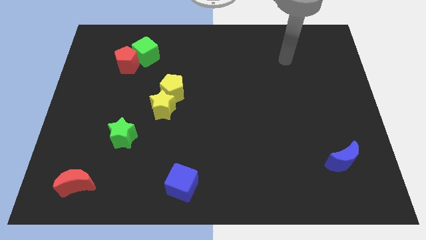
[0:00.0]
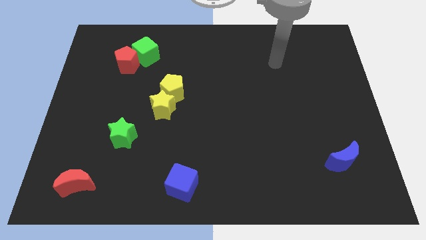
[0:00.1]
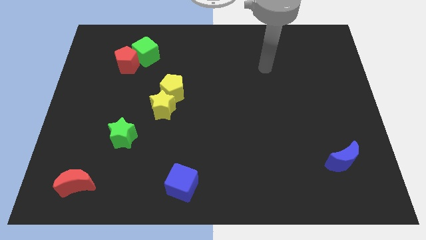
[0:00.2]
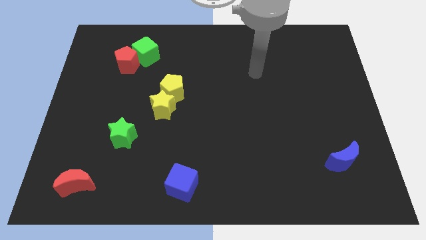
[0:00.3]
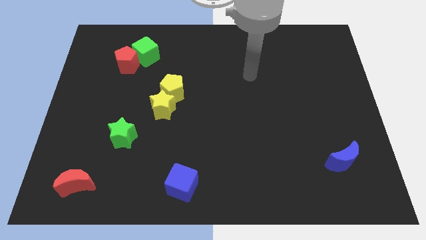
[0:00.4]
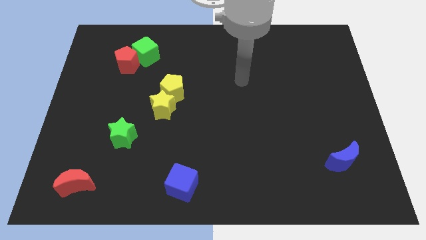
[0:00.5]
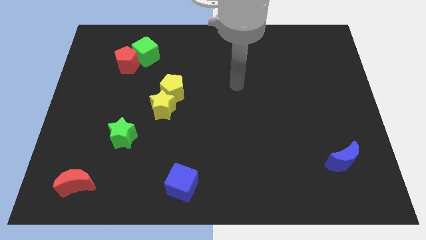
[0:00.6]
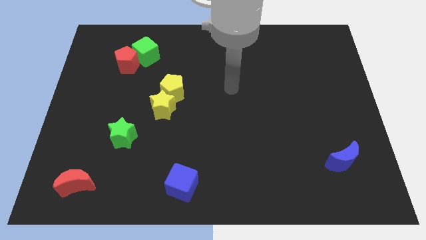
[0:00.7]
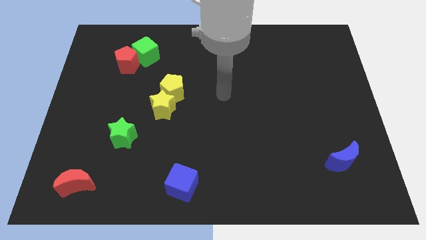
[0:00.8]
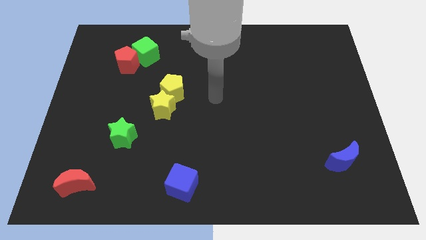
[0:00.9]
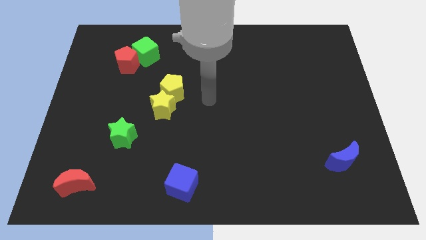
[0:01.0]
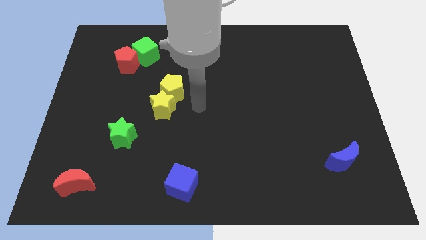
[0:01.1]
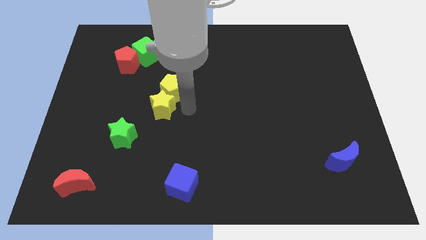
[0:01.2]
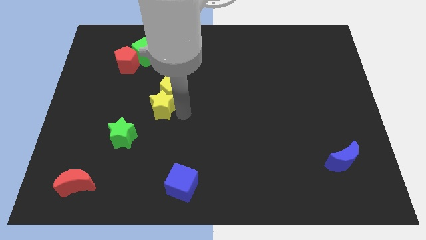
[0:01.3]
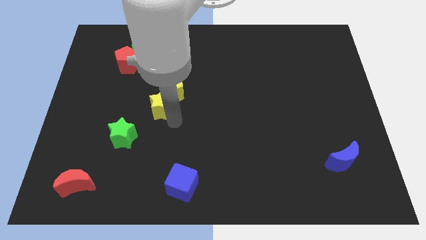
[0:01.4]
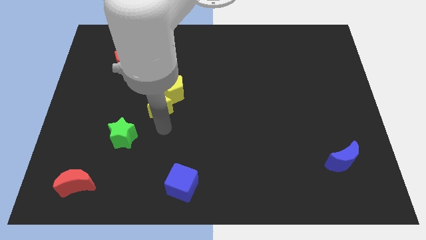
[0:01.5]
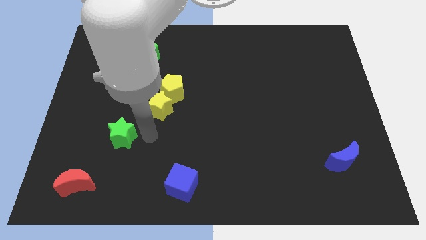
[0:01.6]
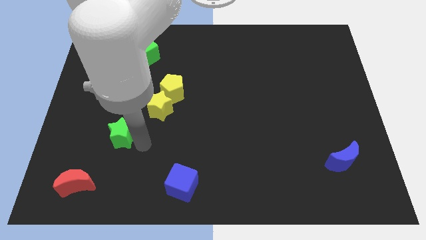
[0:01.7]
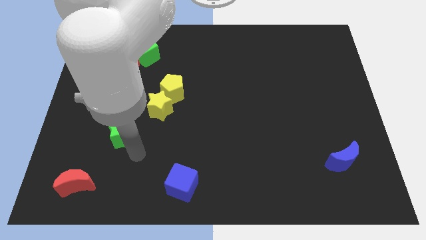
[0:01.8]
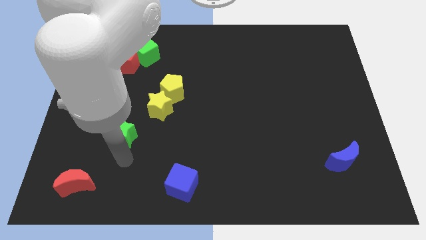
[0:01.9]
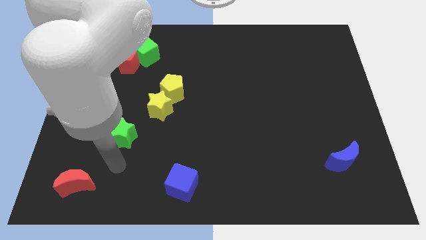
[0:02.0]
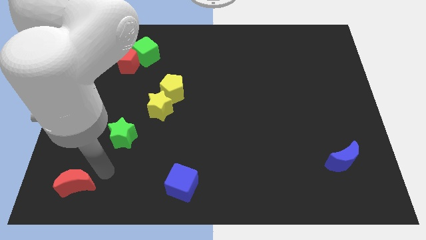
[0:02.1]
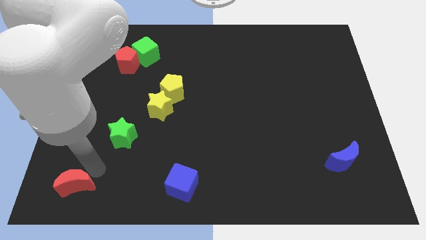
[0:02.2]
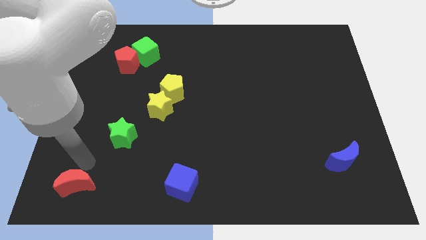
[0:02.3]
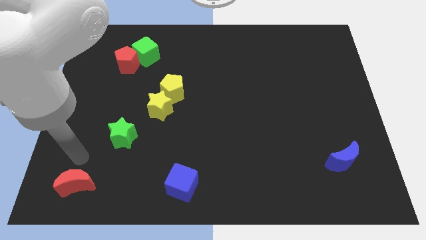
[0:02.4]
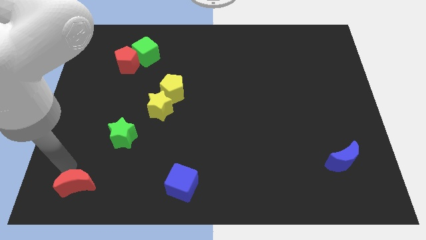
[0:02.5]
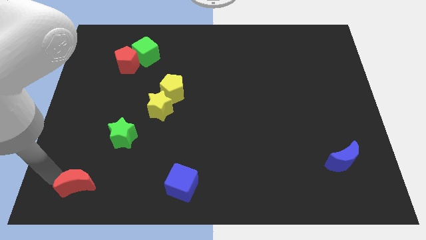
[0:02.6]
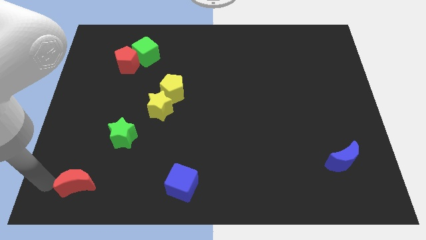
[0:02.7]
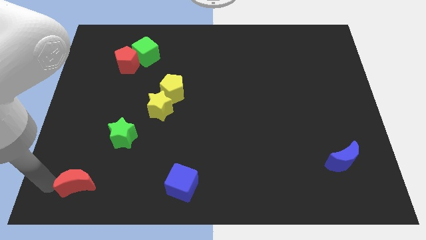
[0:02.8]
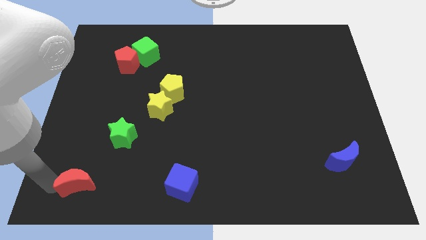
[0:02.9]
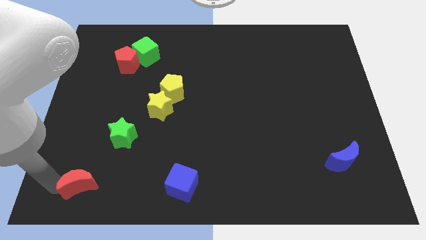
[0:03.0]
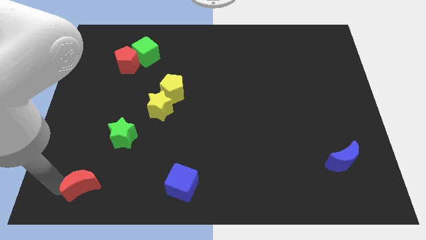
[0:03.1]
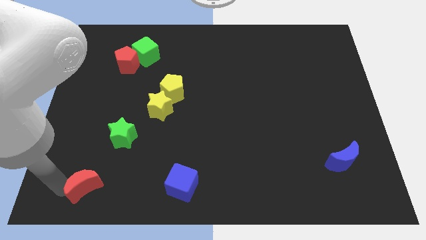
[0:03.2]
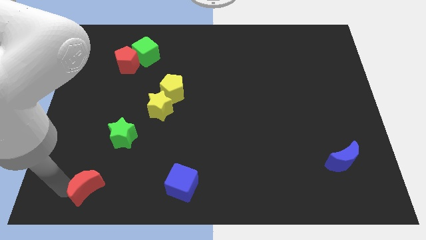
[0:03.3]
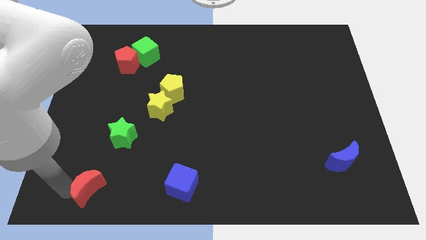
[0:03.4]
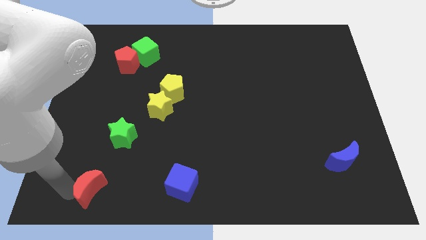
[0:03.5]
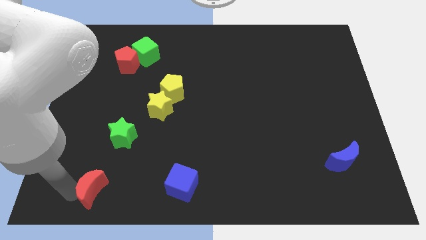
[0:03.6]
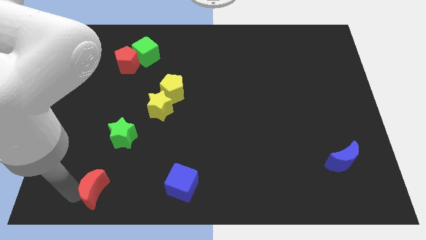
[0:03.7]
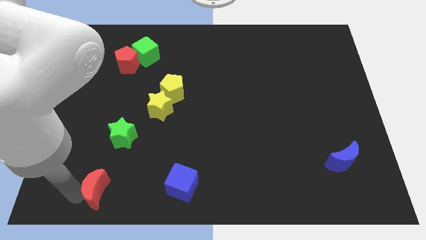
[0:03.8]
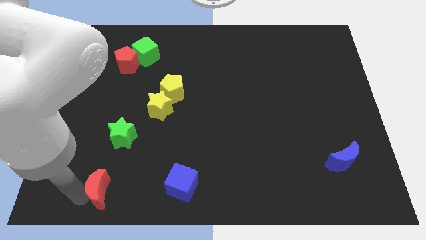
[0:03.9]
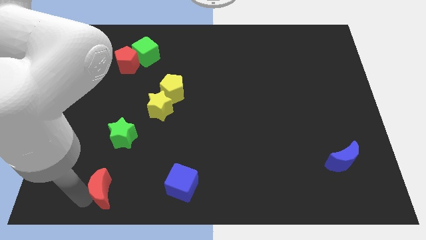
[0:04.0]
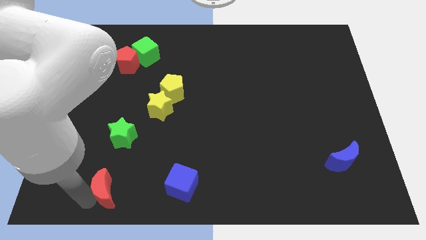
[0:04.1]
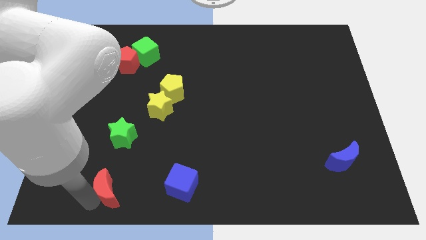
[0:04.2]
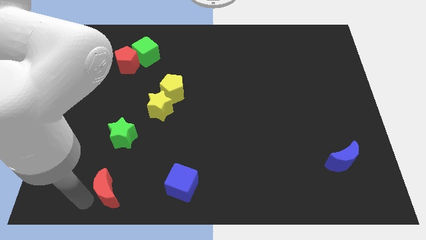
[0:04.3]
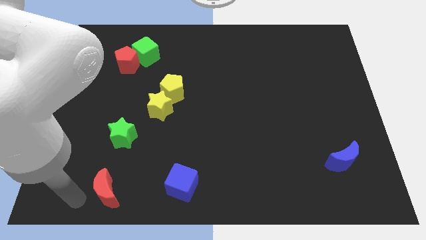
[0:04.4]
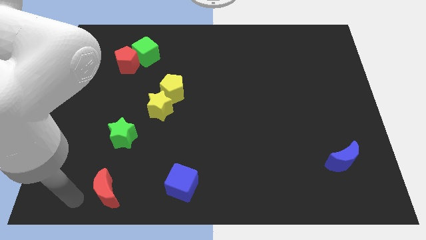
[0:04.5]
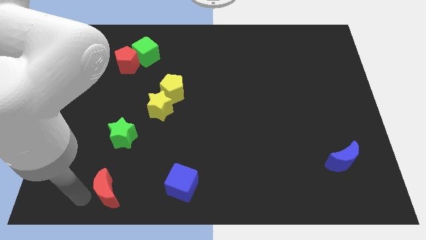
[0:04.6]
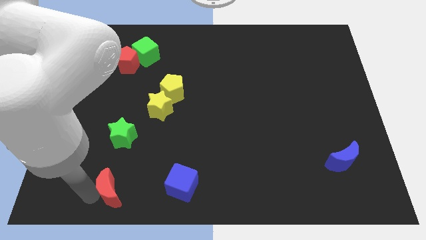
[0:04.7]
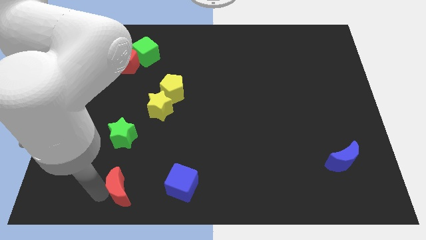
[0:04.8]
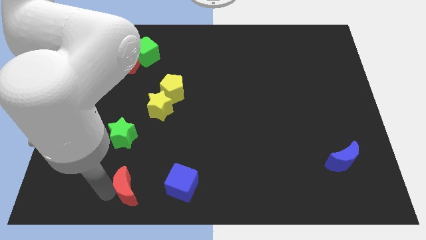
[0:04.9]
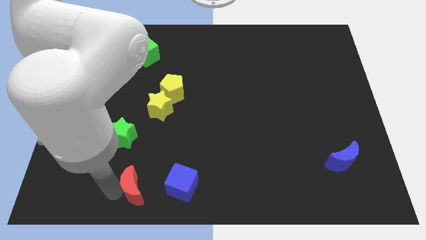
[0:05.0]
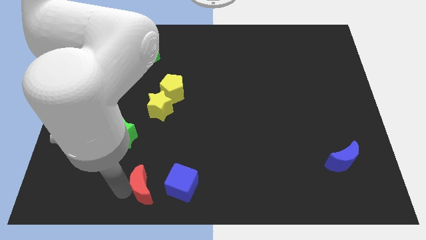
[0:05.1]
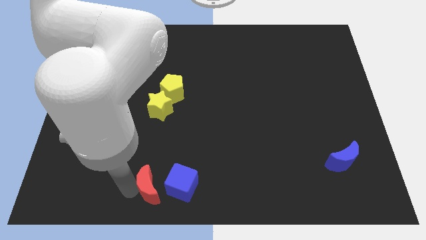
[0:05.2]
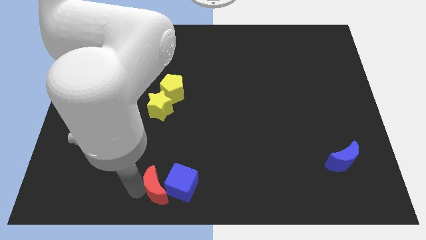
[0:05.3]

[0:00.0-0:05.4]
move the red moon next to the blue cube

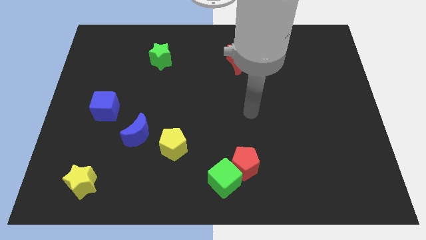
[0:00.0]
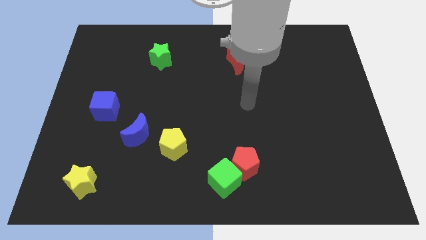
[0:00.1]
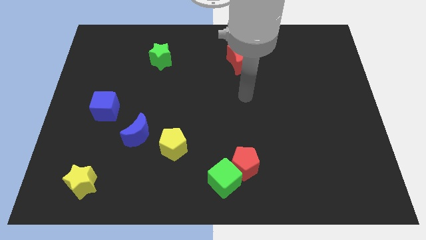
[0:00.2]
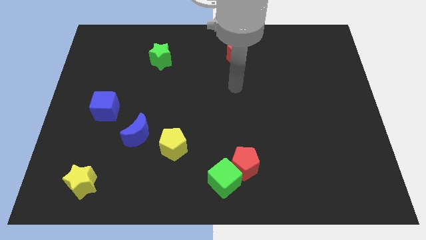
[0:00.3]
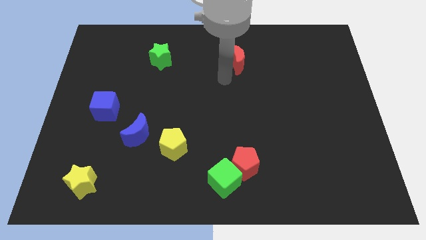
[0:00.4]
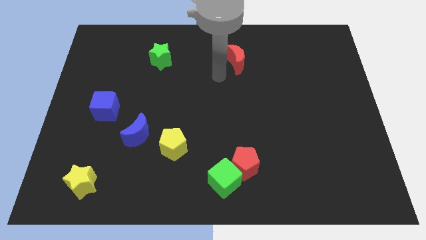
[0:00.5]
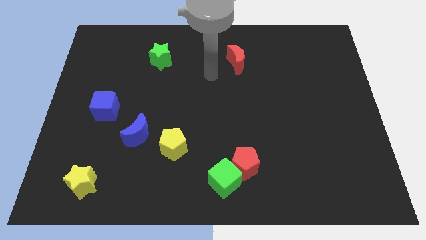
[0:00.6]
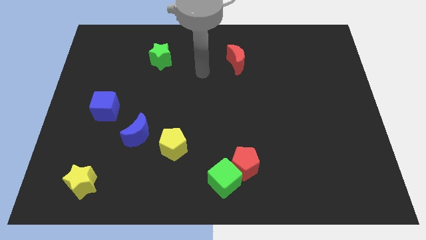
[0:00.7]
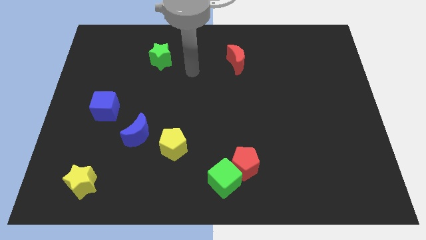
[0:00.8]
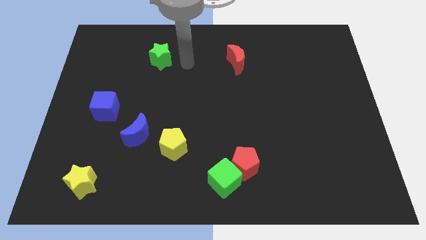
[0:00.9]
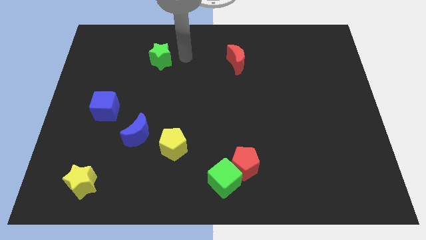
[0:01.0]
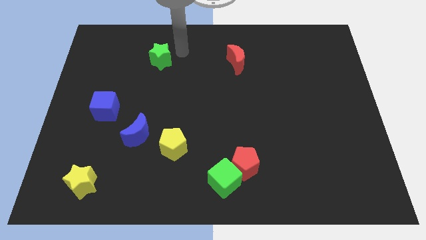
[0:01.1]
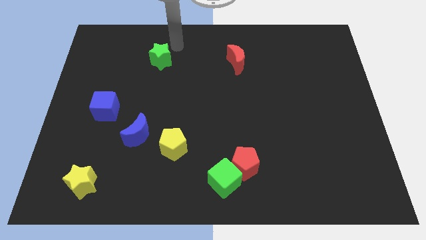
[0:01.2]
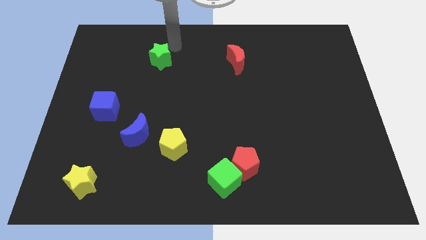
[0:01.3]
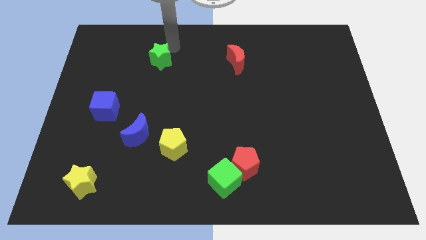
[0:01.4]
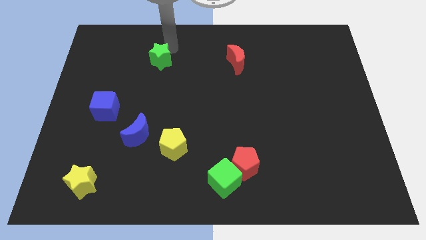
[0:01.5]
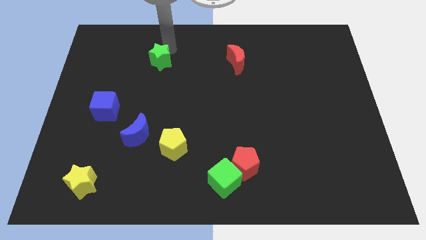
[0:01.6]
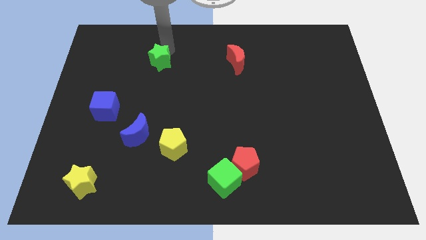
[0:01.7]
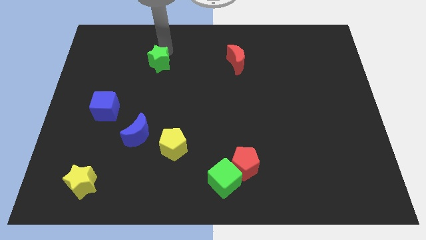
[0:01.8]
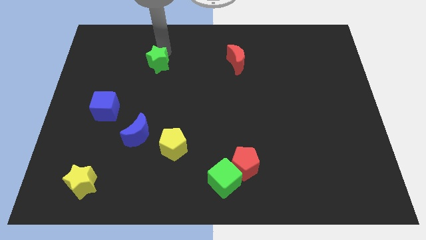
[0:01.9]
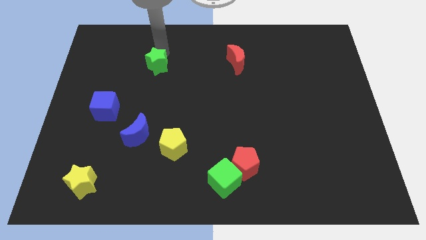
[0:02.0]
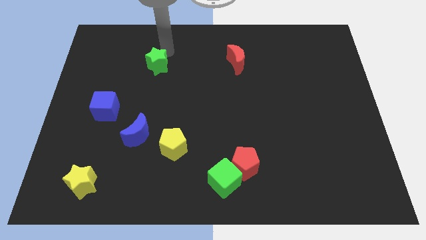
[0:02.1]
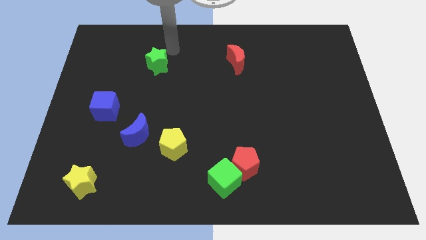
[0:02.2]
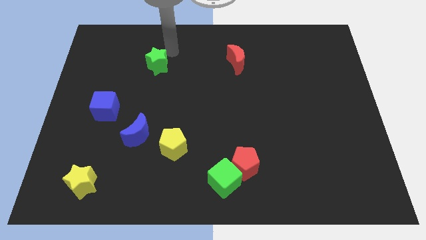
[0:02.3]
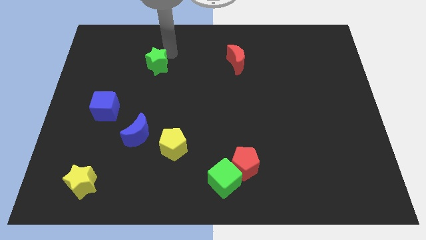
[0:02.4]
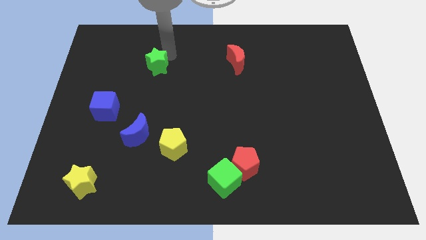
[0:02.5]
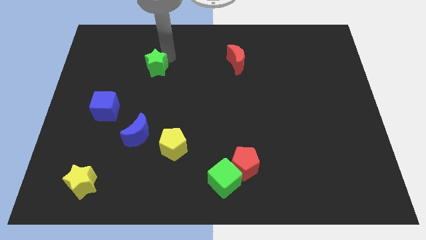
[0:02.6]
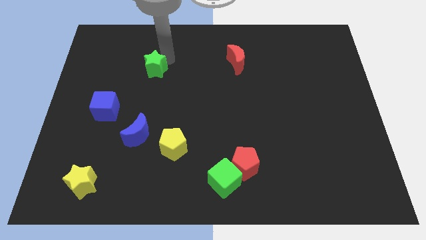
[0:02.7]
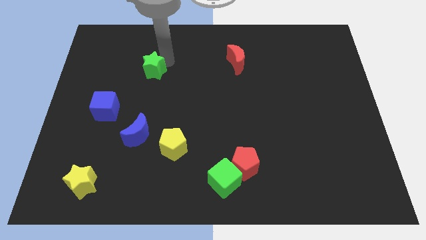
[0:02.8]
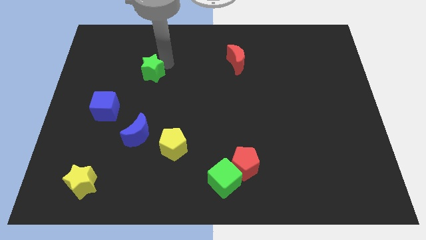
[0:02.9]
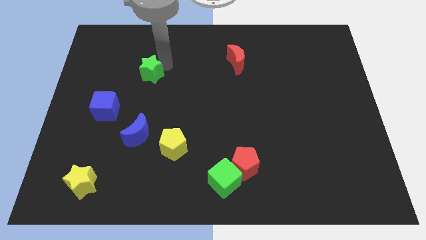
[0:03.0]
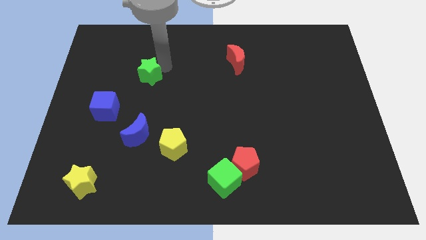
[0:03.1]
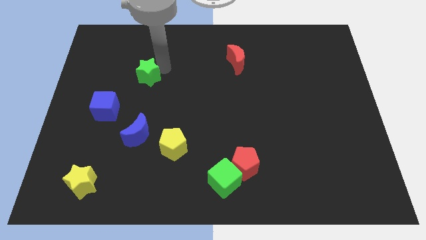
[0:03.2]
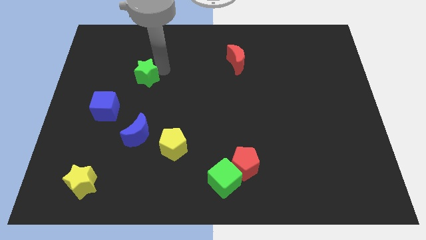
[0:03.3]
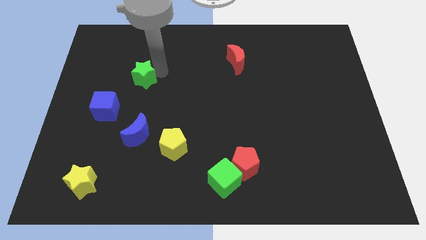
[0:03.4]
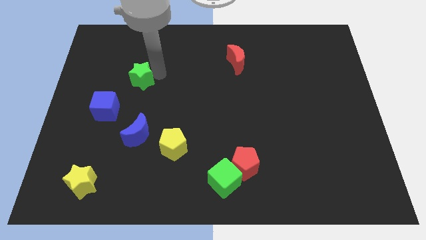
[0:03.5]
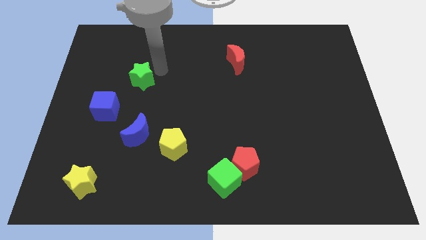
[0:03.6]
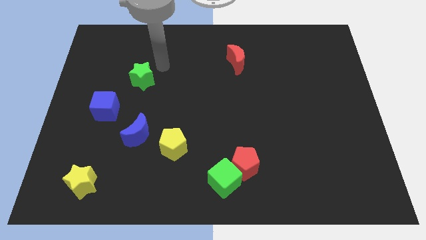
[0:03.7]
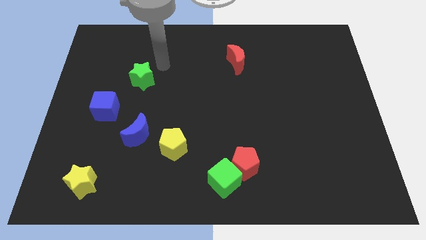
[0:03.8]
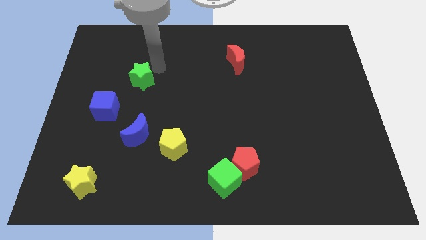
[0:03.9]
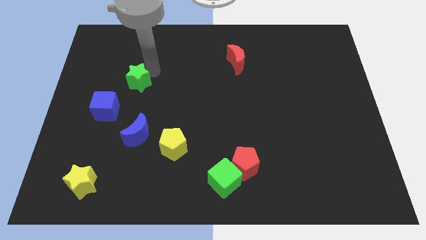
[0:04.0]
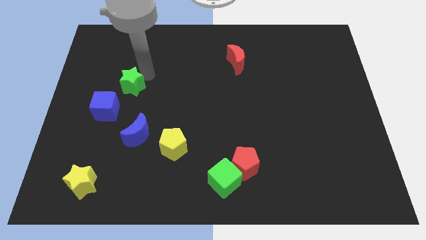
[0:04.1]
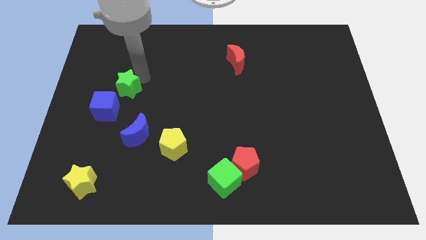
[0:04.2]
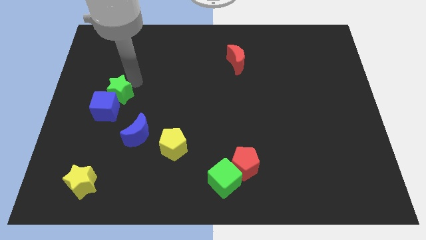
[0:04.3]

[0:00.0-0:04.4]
push the green star towards the blue cube
